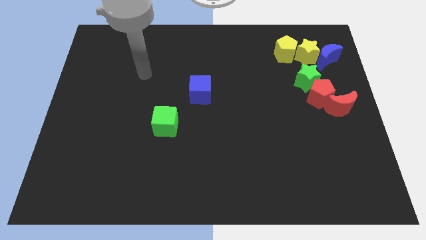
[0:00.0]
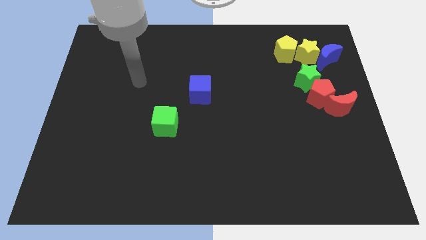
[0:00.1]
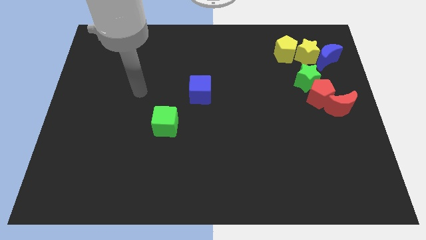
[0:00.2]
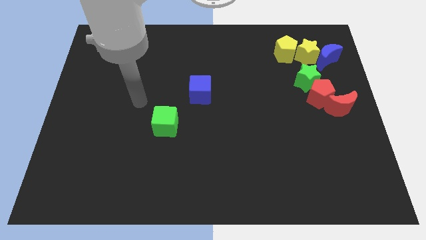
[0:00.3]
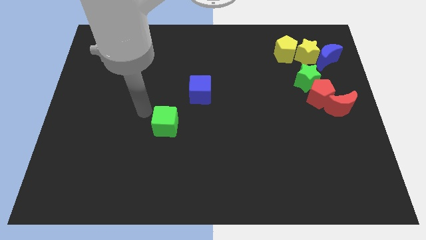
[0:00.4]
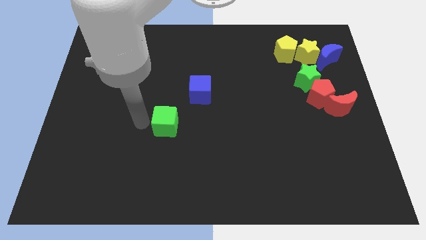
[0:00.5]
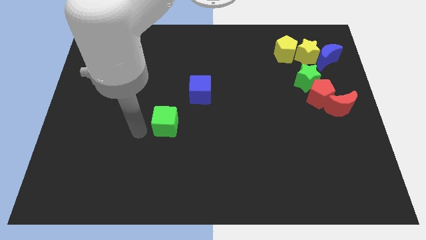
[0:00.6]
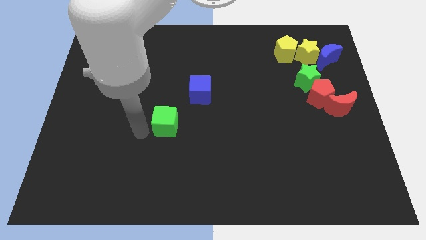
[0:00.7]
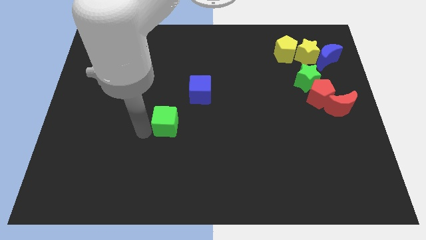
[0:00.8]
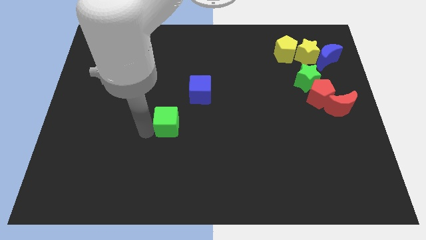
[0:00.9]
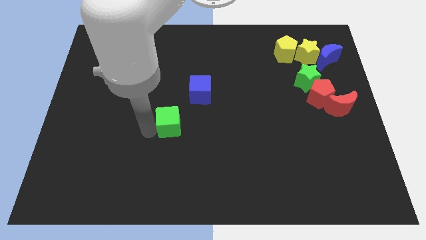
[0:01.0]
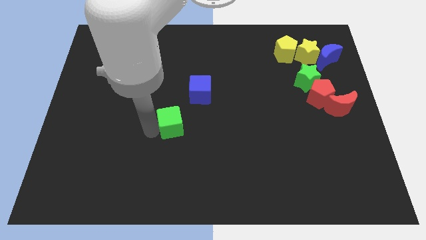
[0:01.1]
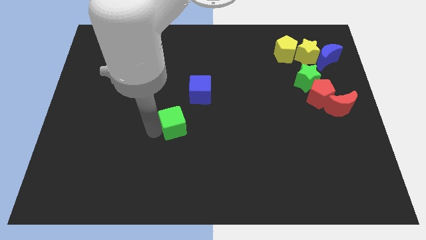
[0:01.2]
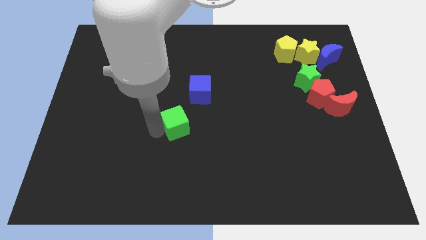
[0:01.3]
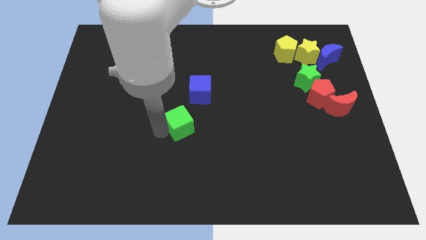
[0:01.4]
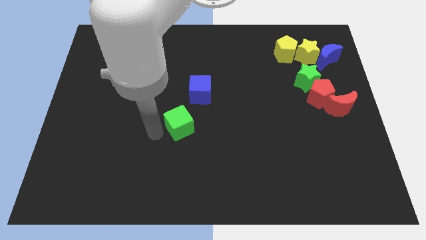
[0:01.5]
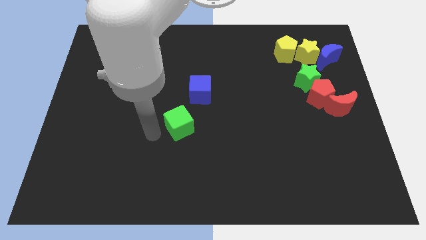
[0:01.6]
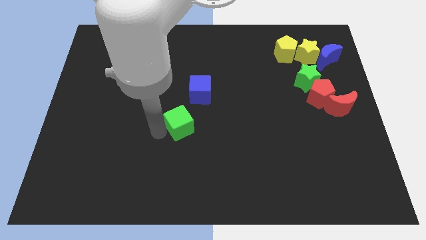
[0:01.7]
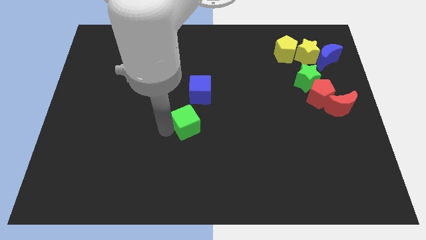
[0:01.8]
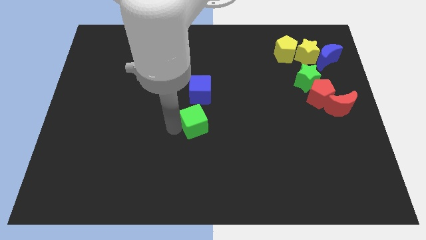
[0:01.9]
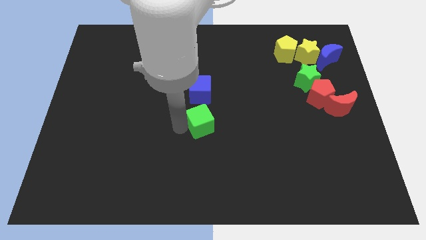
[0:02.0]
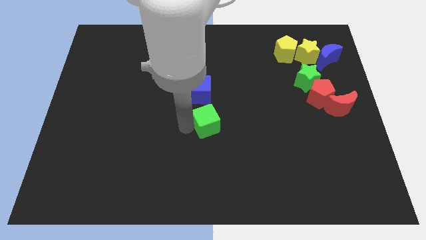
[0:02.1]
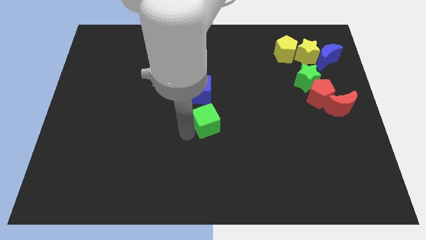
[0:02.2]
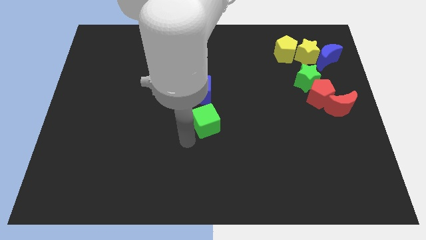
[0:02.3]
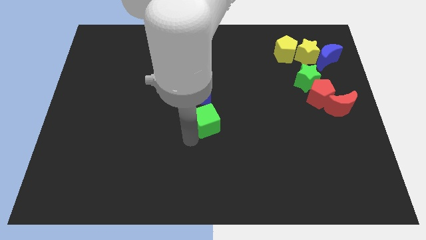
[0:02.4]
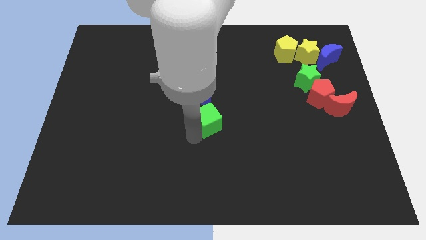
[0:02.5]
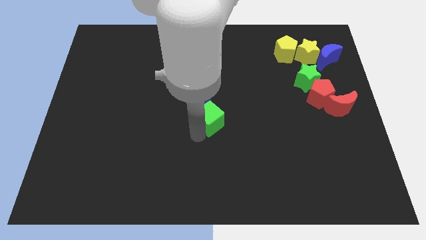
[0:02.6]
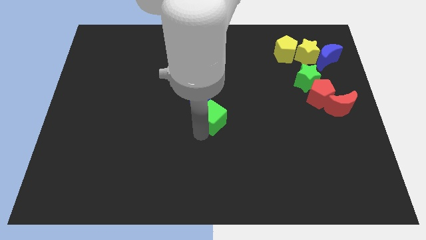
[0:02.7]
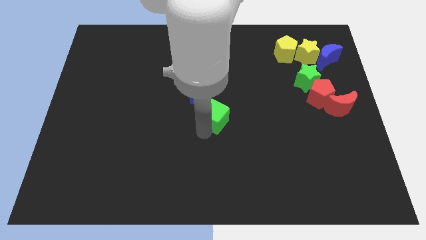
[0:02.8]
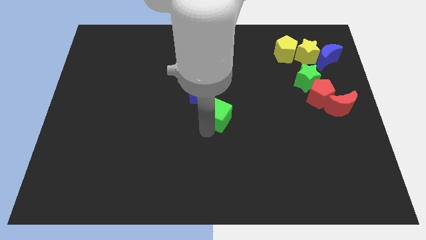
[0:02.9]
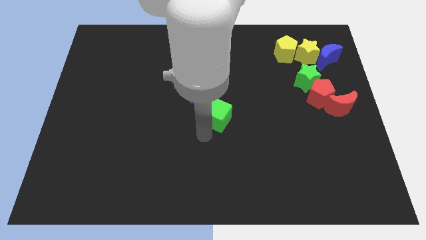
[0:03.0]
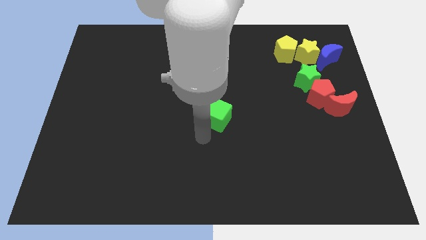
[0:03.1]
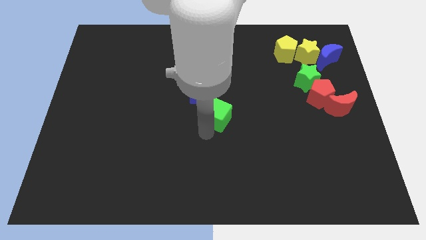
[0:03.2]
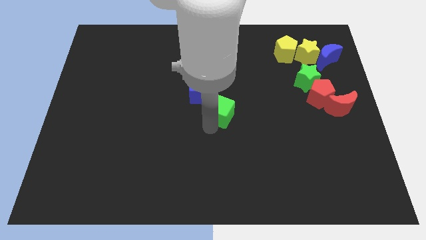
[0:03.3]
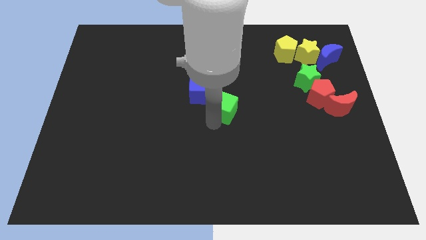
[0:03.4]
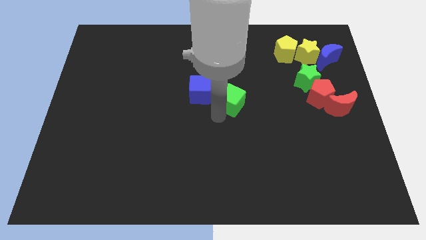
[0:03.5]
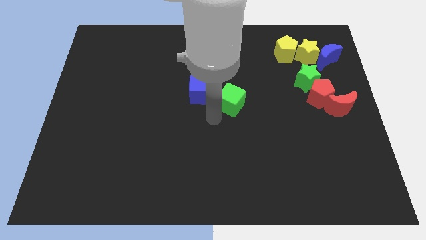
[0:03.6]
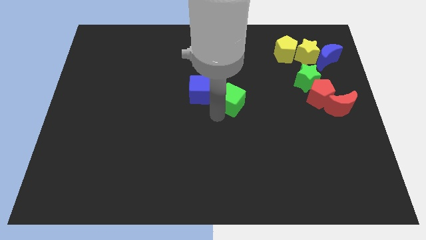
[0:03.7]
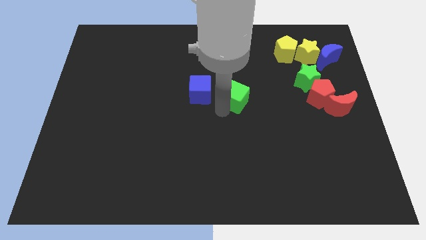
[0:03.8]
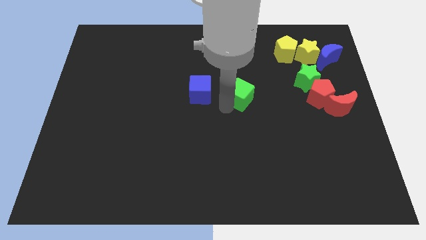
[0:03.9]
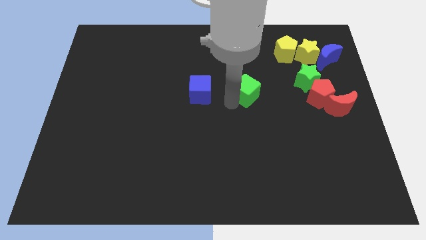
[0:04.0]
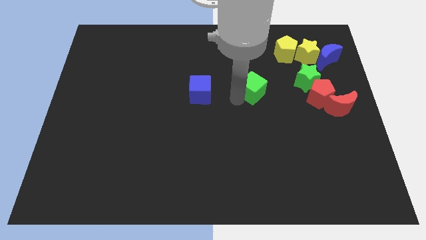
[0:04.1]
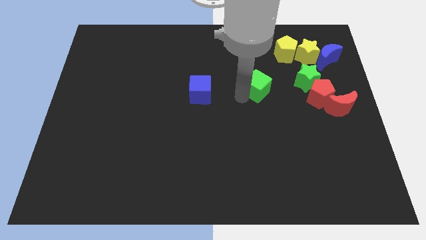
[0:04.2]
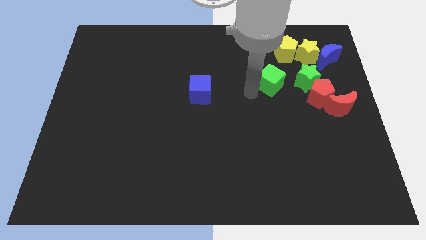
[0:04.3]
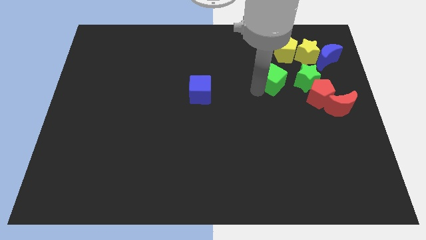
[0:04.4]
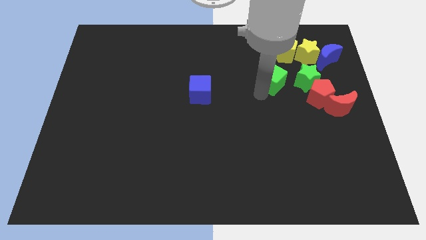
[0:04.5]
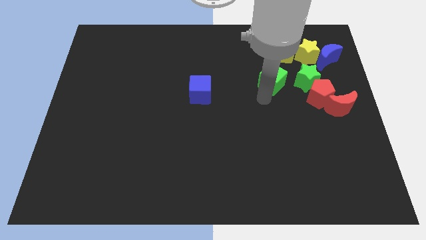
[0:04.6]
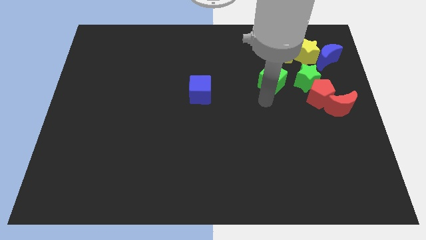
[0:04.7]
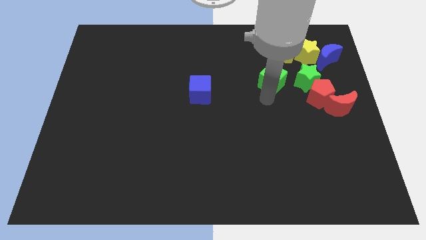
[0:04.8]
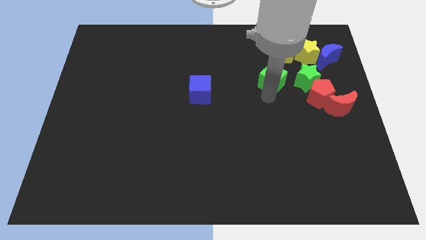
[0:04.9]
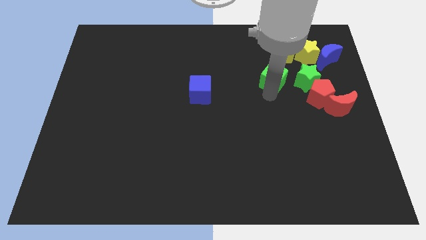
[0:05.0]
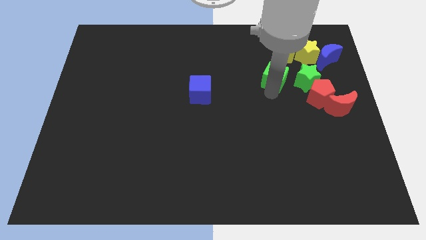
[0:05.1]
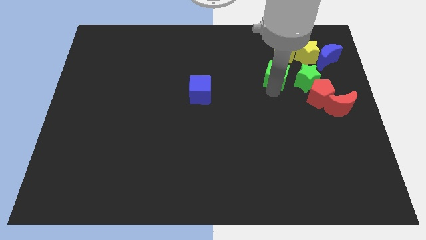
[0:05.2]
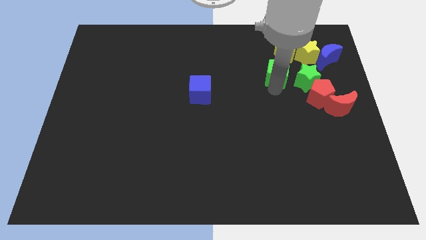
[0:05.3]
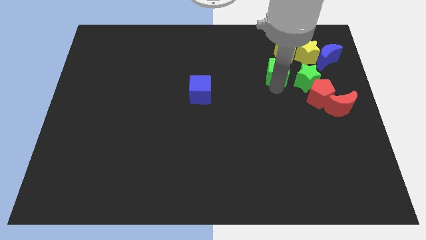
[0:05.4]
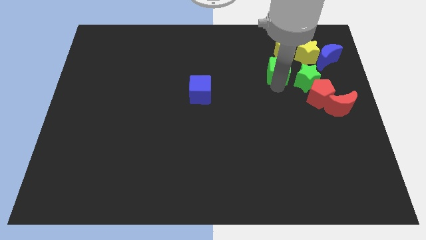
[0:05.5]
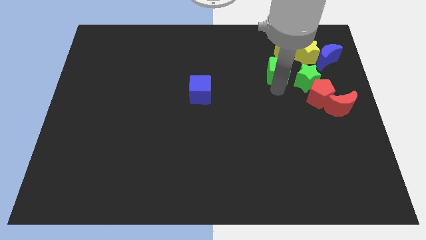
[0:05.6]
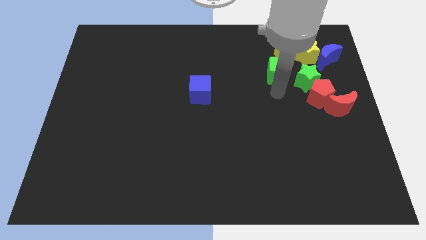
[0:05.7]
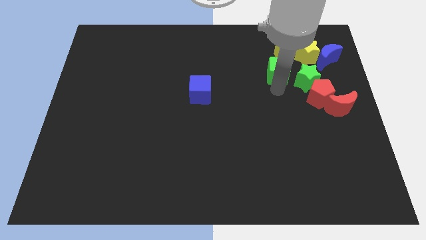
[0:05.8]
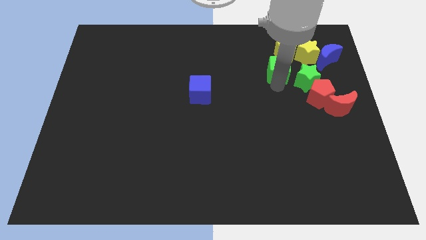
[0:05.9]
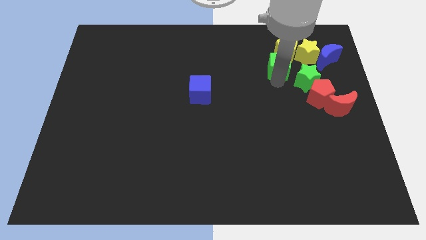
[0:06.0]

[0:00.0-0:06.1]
move the green cube to the yellow pentagon

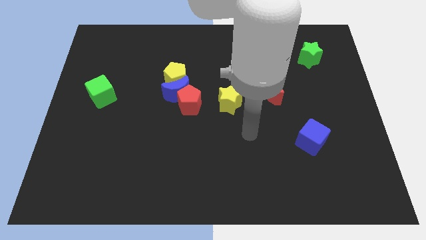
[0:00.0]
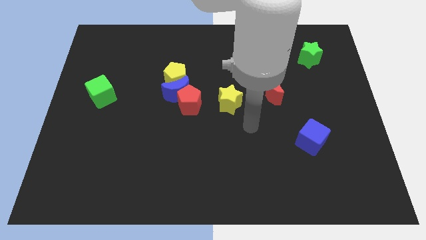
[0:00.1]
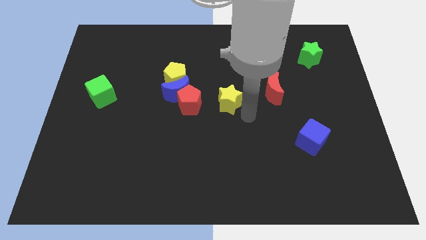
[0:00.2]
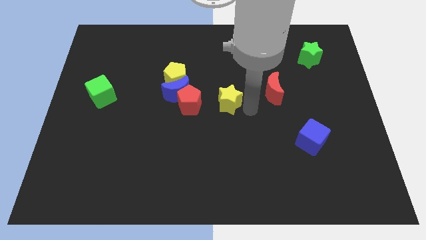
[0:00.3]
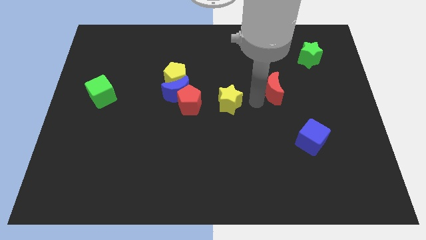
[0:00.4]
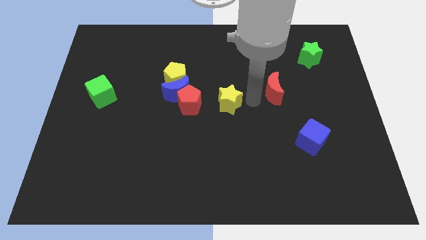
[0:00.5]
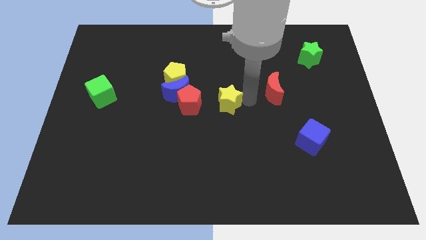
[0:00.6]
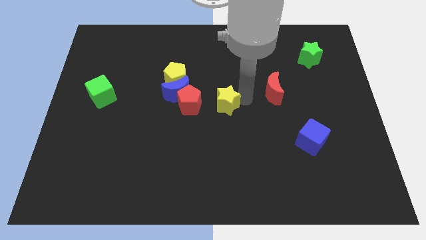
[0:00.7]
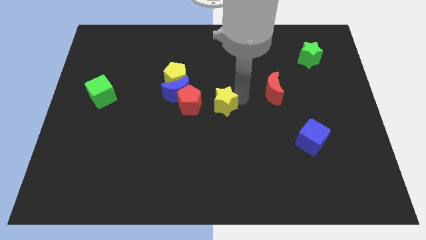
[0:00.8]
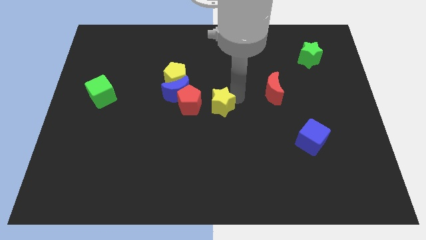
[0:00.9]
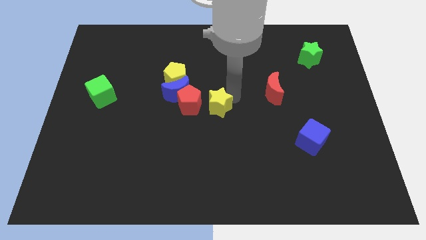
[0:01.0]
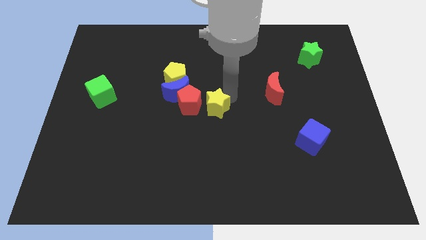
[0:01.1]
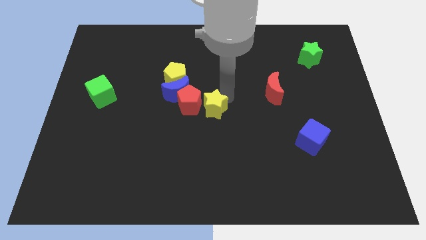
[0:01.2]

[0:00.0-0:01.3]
move the yellow star close to the red pentagon
